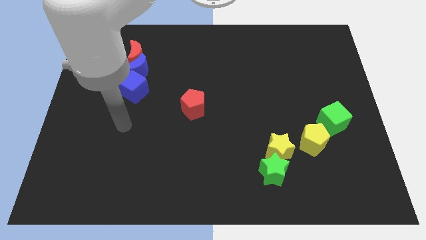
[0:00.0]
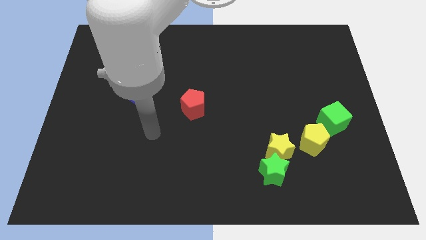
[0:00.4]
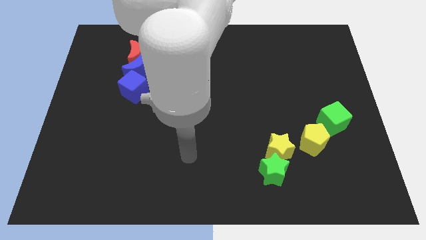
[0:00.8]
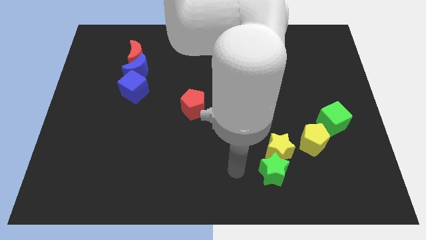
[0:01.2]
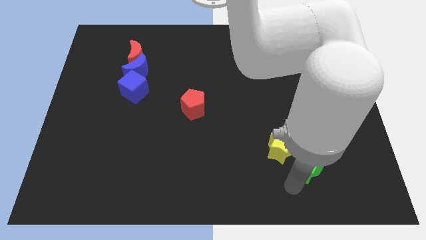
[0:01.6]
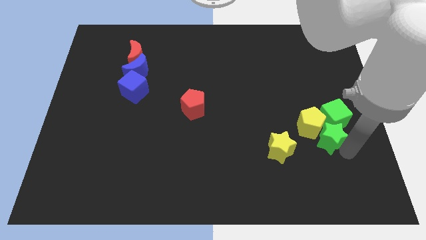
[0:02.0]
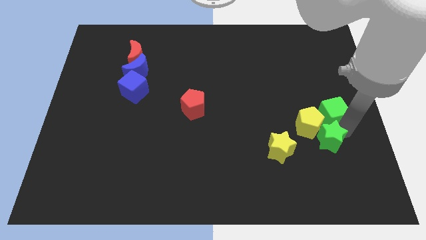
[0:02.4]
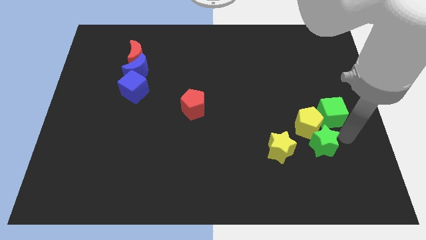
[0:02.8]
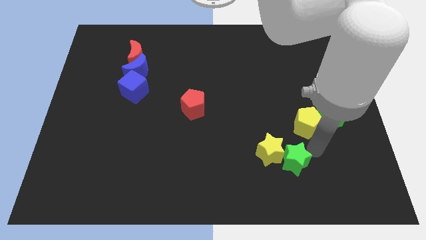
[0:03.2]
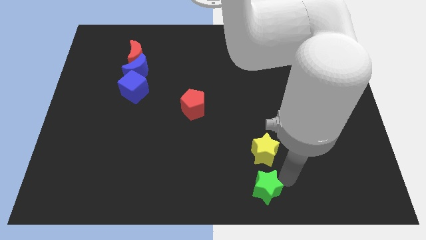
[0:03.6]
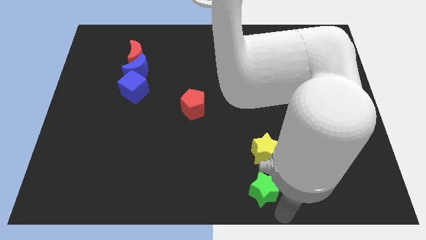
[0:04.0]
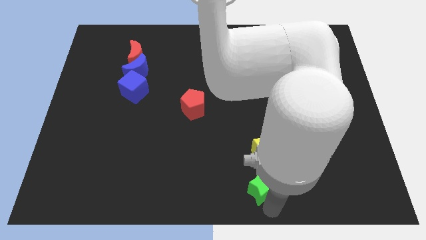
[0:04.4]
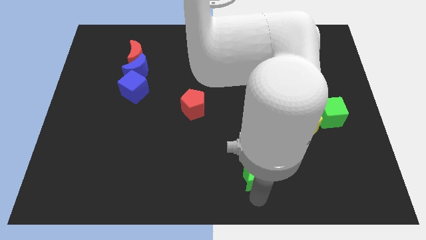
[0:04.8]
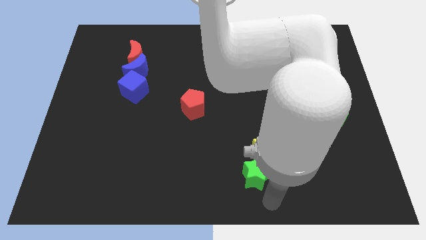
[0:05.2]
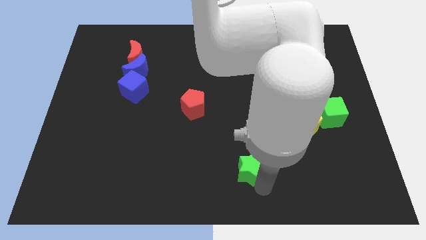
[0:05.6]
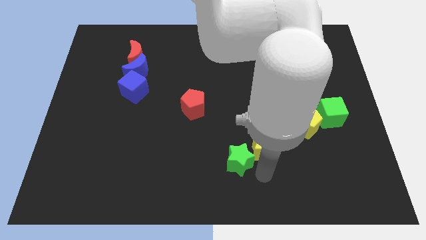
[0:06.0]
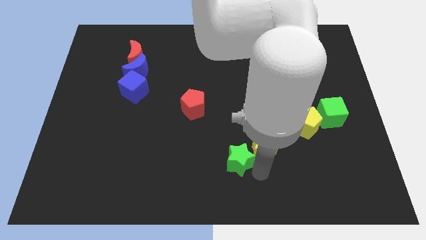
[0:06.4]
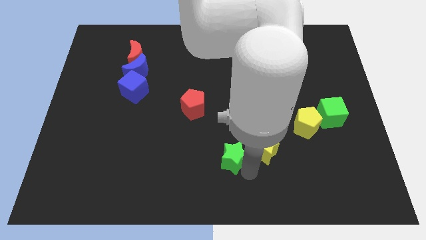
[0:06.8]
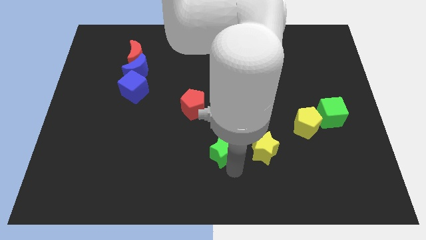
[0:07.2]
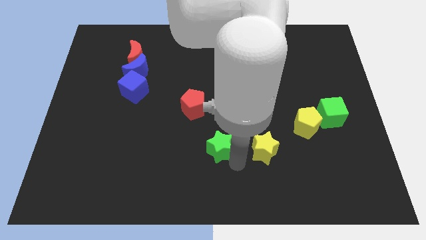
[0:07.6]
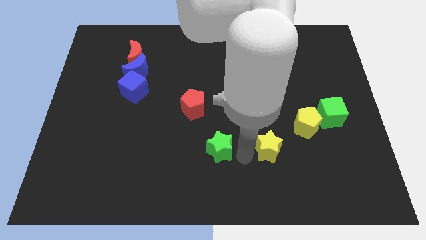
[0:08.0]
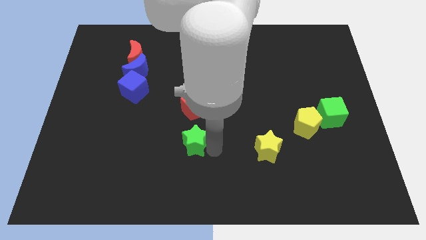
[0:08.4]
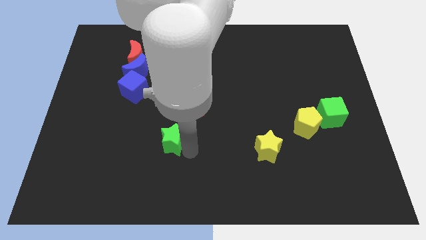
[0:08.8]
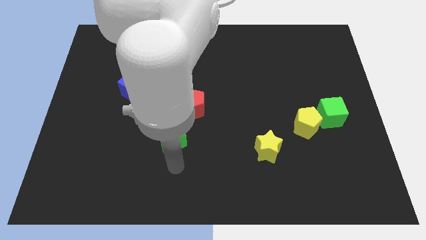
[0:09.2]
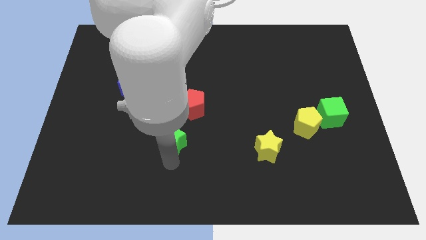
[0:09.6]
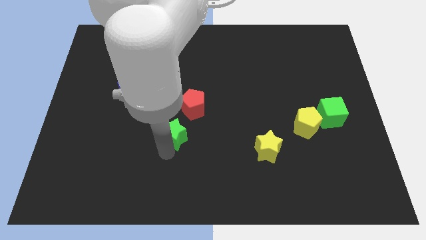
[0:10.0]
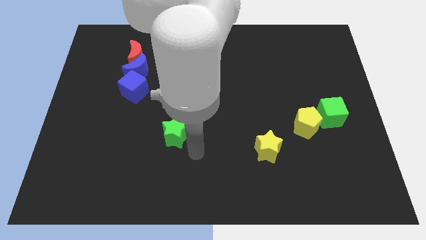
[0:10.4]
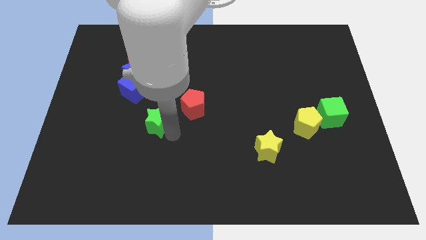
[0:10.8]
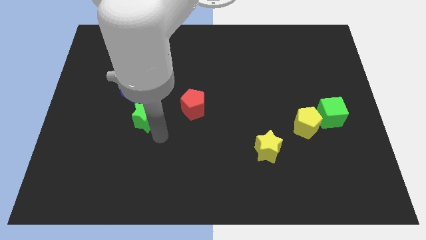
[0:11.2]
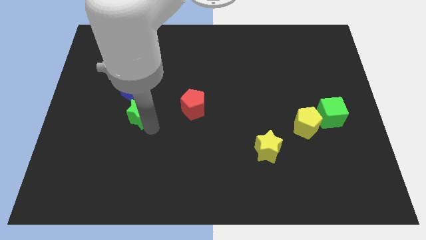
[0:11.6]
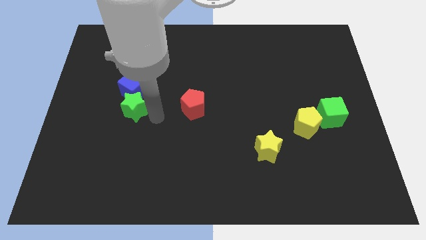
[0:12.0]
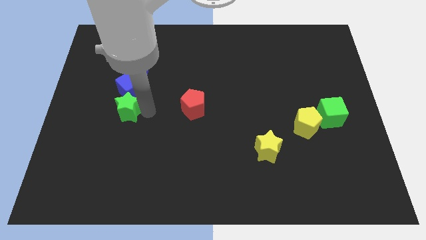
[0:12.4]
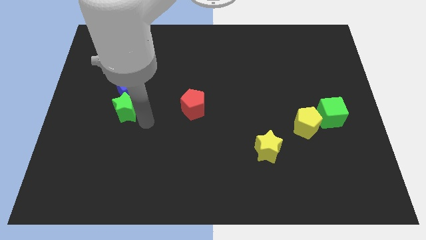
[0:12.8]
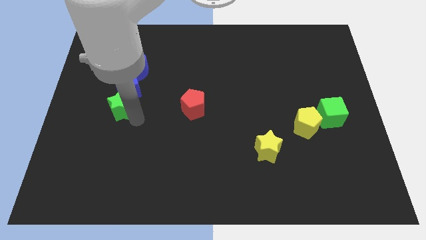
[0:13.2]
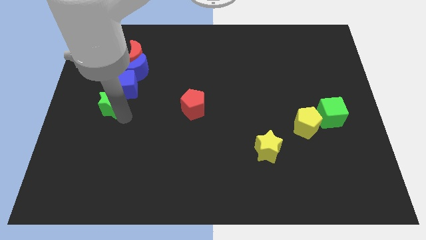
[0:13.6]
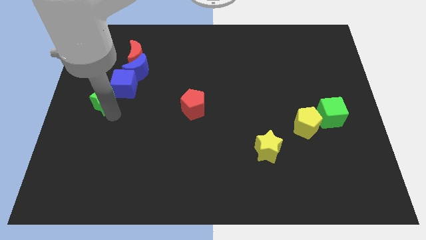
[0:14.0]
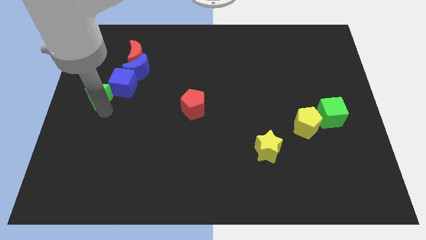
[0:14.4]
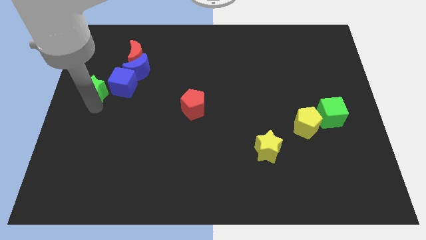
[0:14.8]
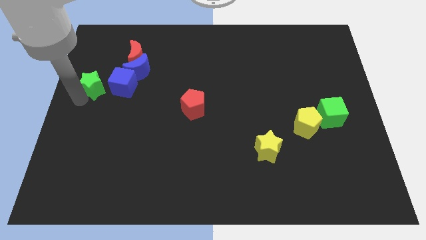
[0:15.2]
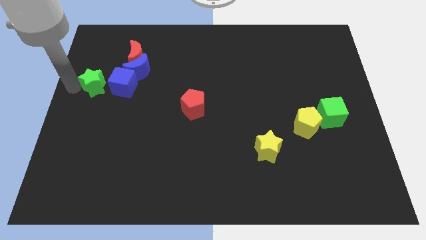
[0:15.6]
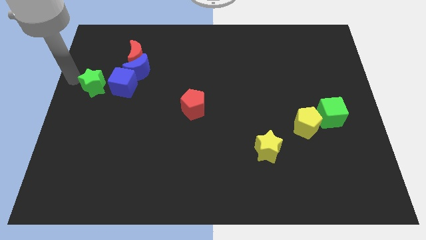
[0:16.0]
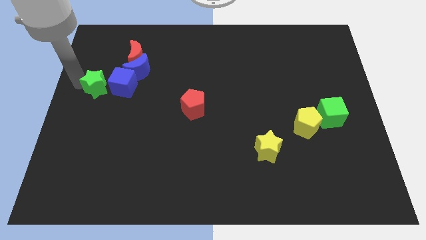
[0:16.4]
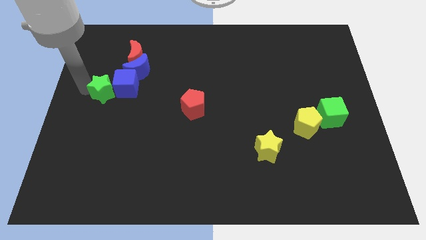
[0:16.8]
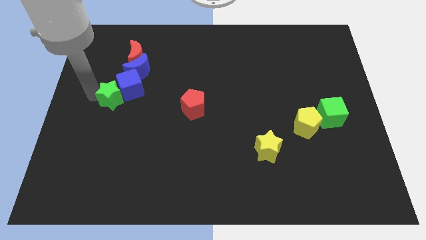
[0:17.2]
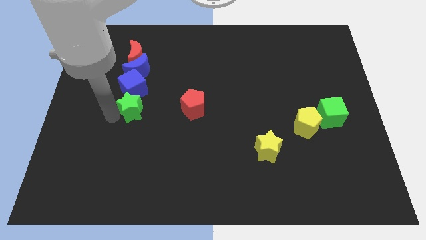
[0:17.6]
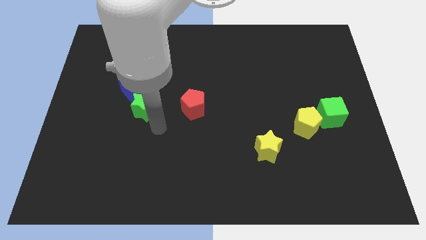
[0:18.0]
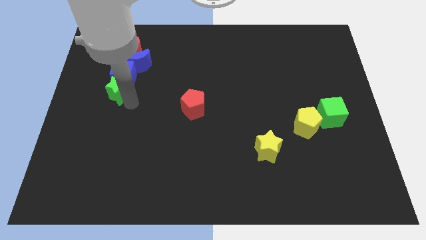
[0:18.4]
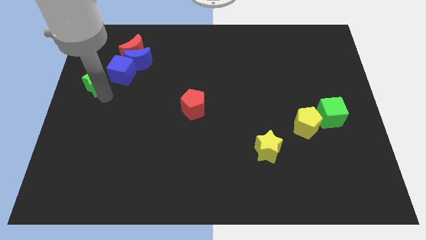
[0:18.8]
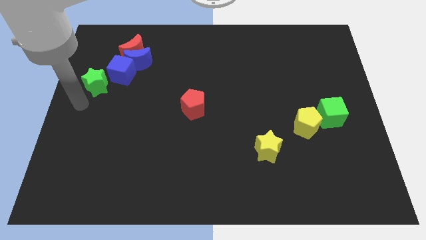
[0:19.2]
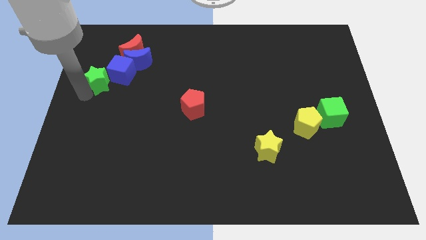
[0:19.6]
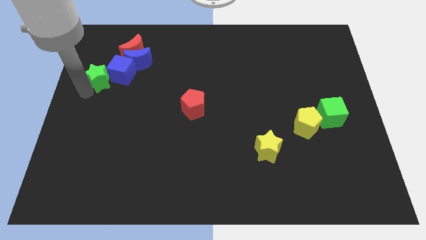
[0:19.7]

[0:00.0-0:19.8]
put the green star to the bottom left of the red moon

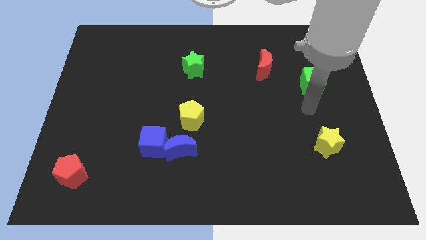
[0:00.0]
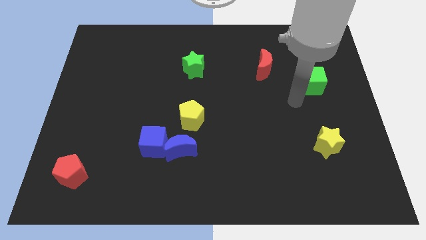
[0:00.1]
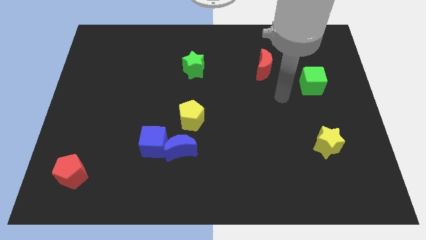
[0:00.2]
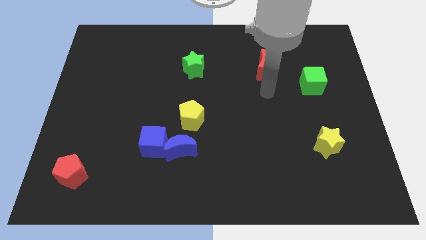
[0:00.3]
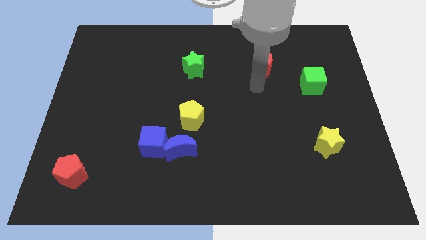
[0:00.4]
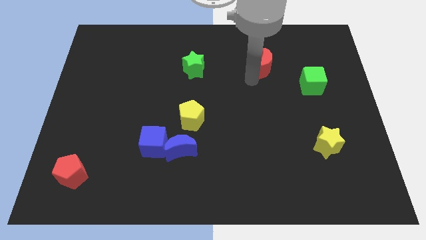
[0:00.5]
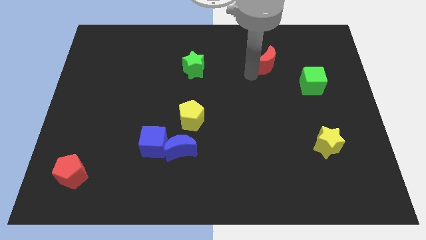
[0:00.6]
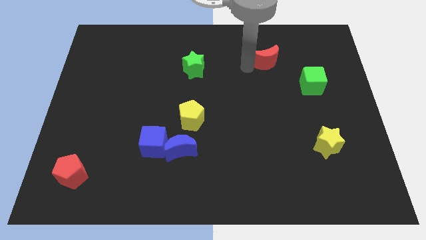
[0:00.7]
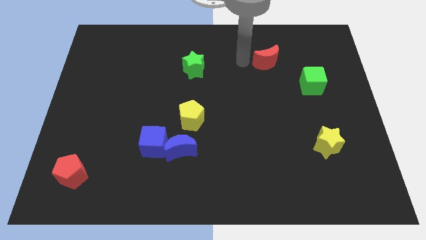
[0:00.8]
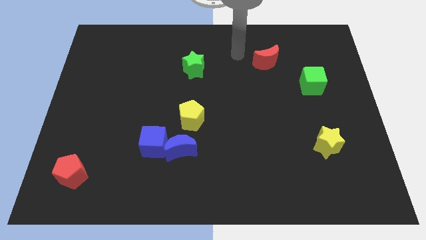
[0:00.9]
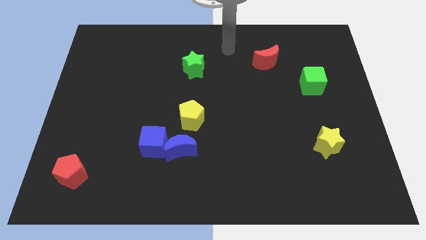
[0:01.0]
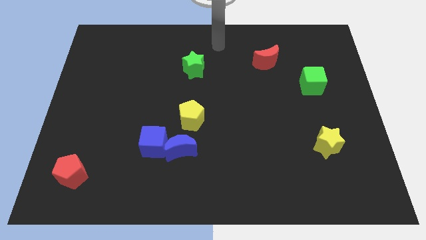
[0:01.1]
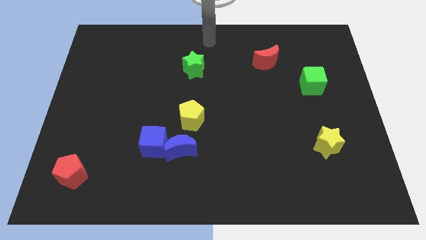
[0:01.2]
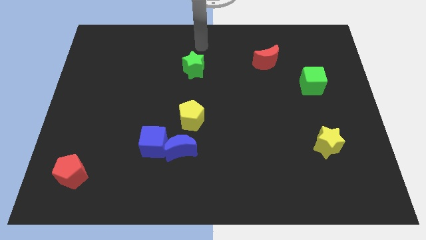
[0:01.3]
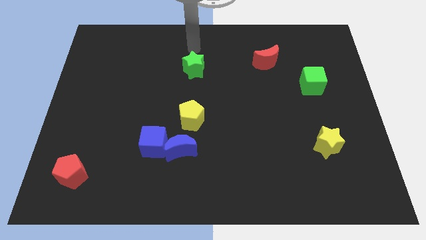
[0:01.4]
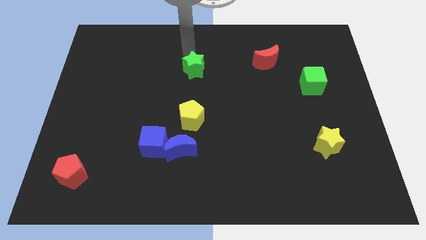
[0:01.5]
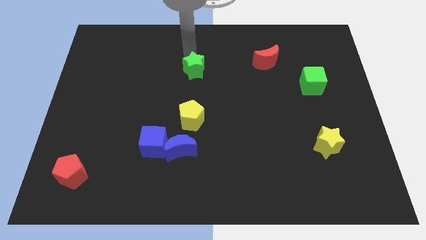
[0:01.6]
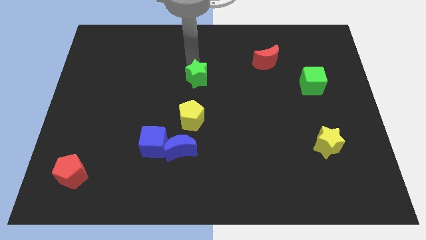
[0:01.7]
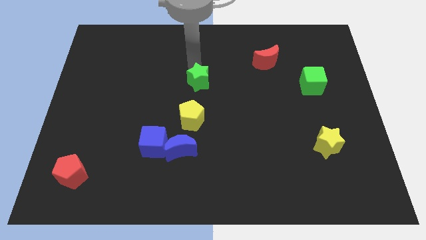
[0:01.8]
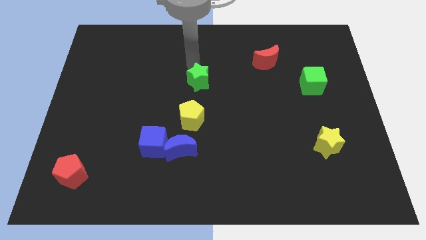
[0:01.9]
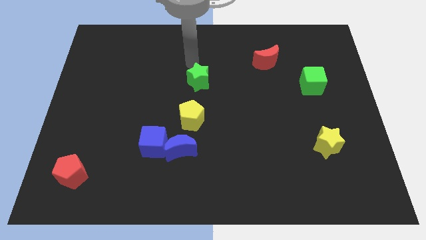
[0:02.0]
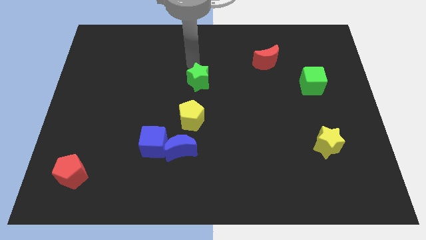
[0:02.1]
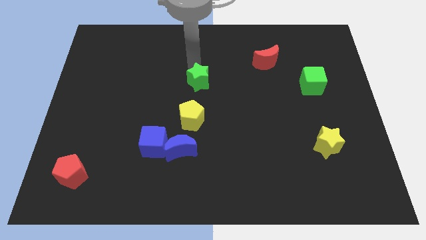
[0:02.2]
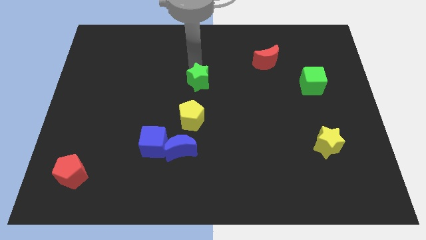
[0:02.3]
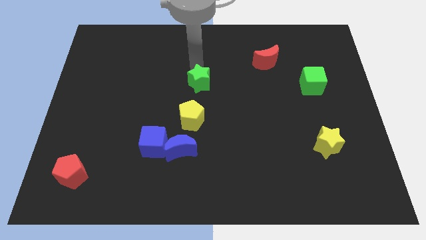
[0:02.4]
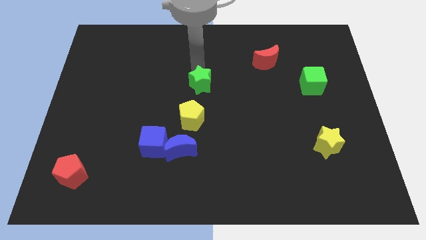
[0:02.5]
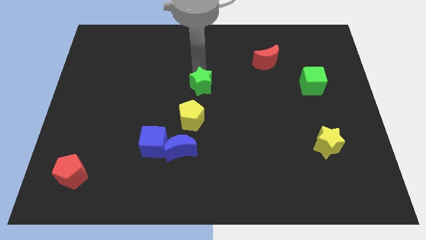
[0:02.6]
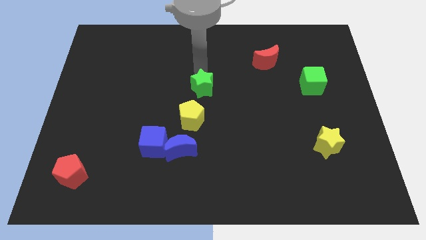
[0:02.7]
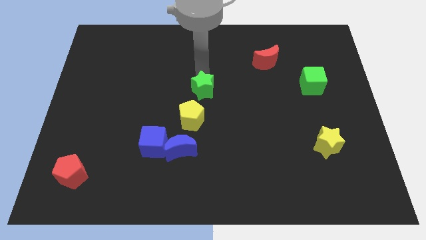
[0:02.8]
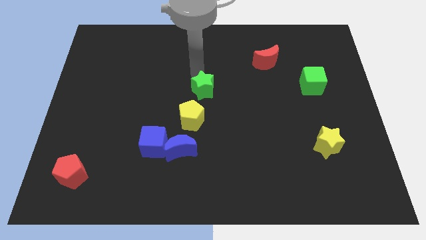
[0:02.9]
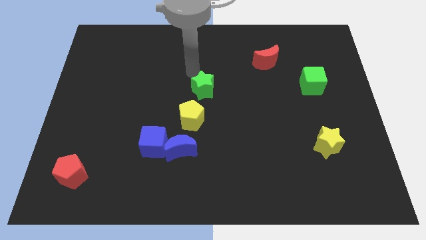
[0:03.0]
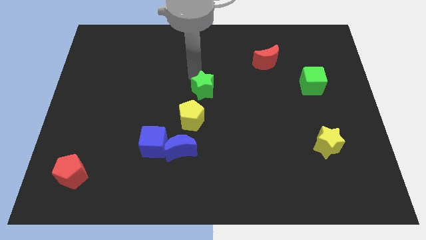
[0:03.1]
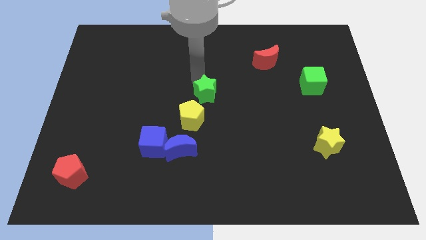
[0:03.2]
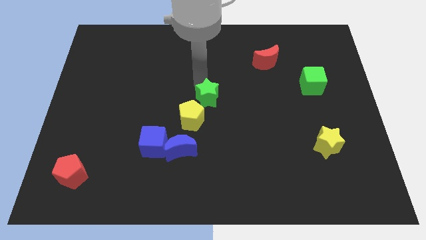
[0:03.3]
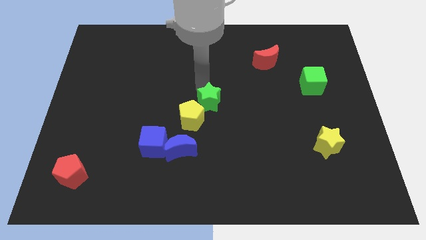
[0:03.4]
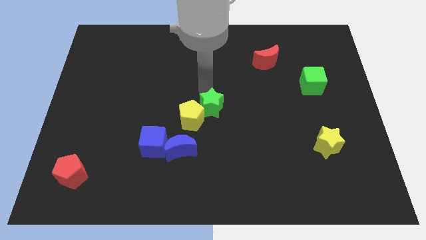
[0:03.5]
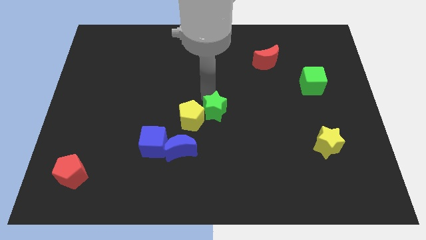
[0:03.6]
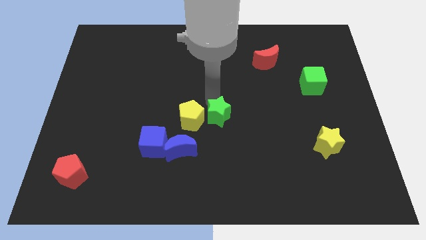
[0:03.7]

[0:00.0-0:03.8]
slide the green star to the top right of the blue moon
